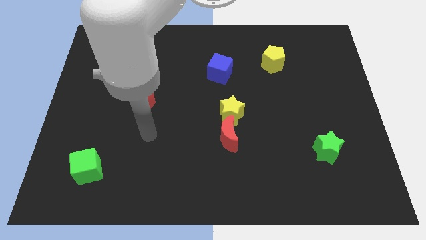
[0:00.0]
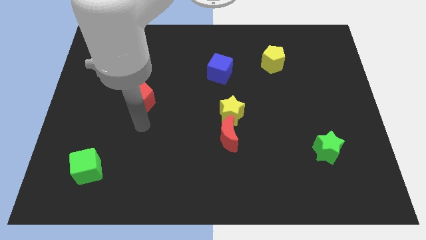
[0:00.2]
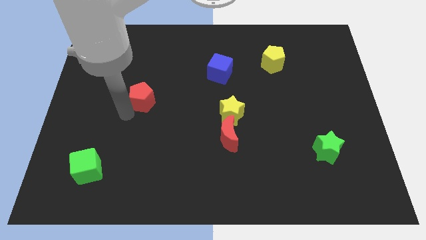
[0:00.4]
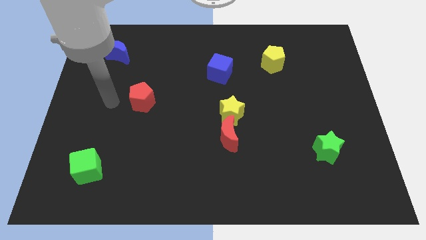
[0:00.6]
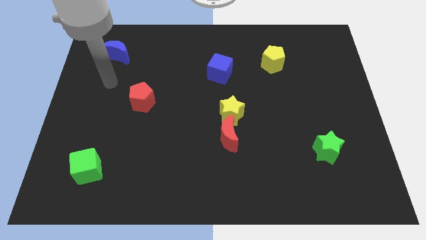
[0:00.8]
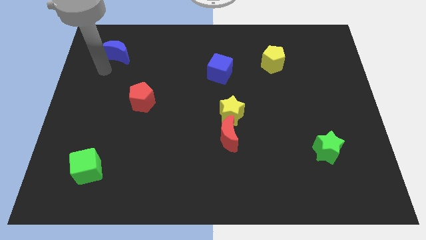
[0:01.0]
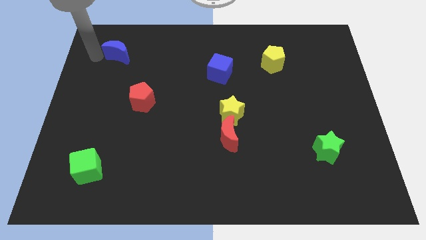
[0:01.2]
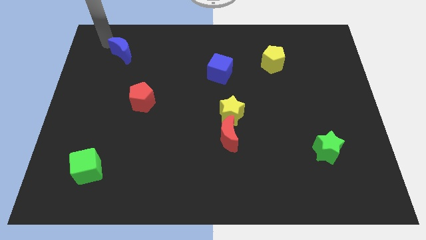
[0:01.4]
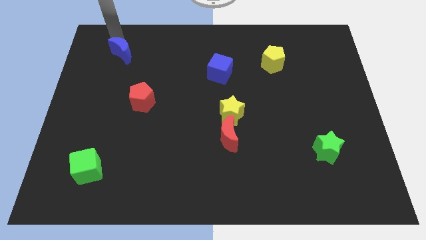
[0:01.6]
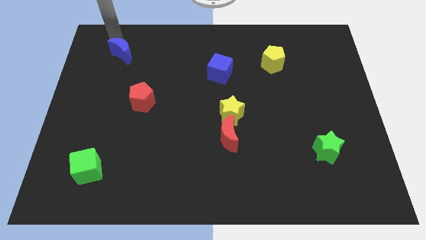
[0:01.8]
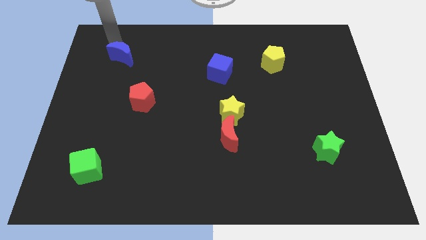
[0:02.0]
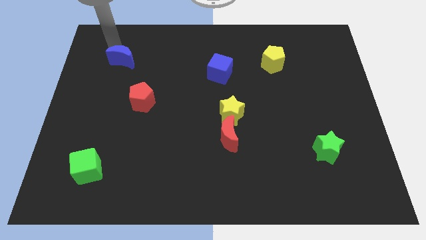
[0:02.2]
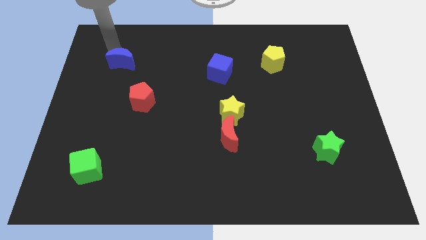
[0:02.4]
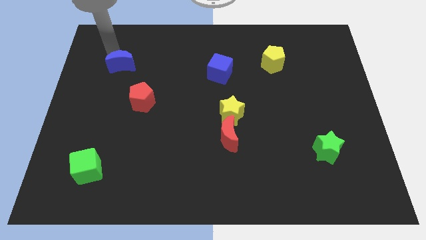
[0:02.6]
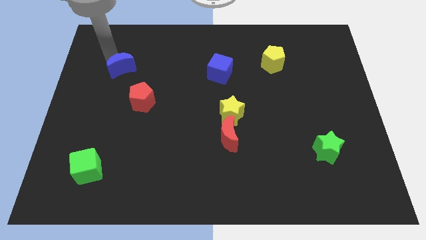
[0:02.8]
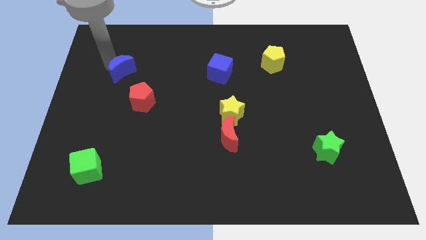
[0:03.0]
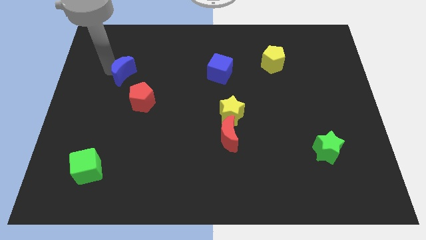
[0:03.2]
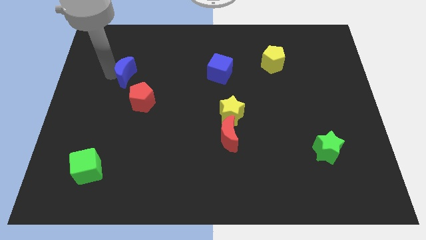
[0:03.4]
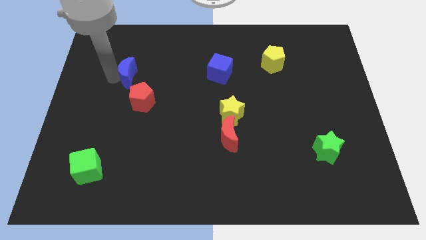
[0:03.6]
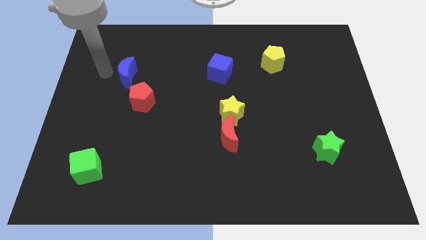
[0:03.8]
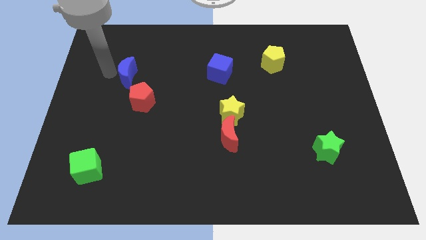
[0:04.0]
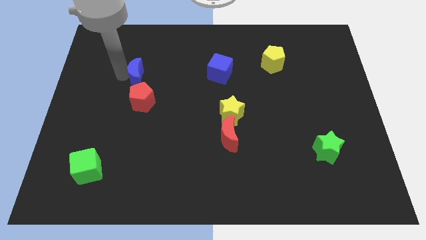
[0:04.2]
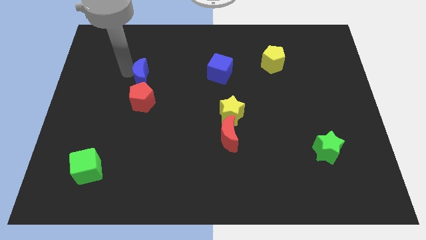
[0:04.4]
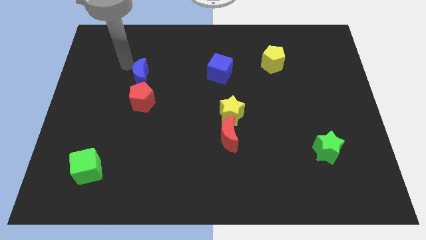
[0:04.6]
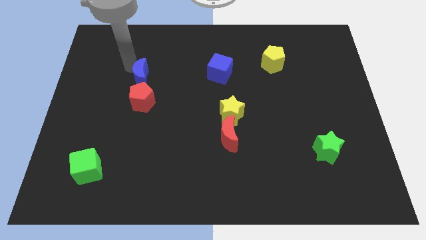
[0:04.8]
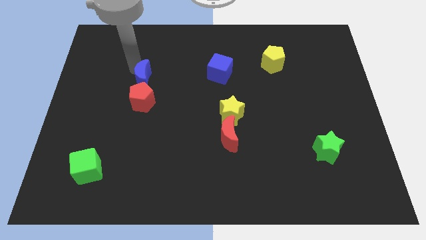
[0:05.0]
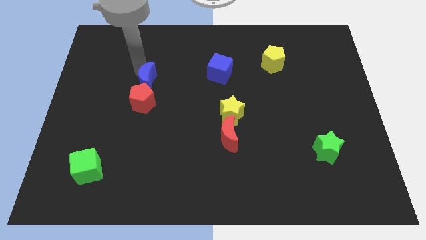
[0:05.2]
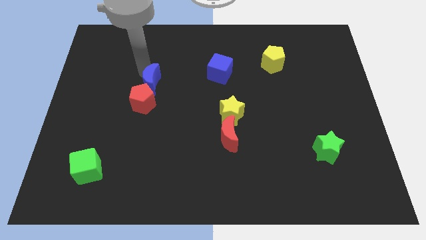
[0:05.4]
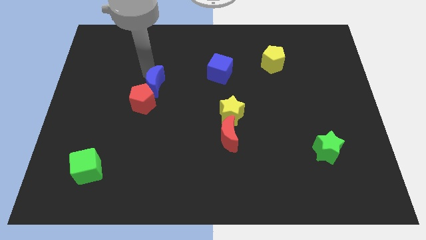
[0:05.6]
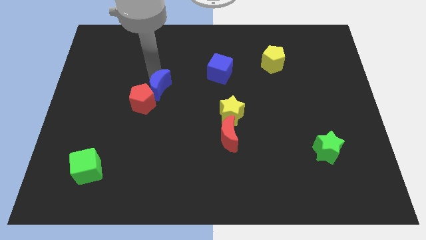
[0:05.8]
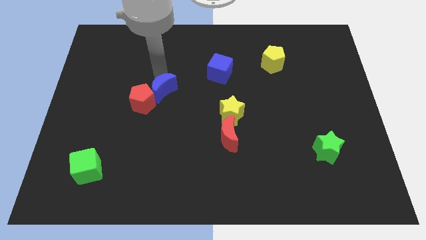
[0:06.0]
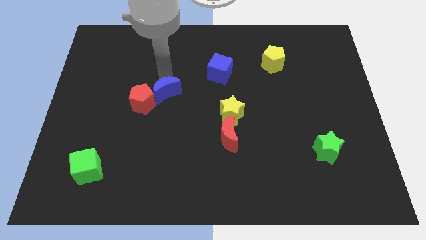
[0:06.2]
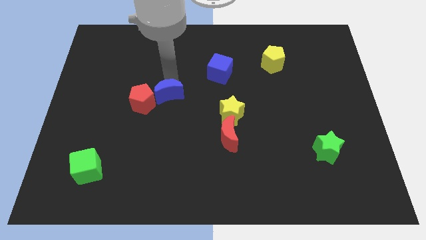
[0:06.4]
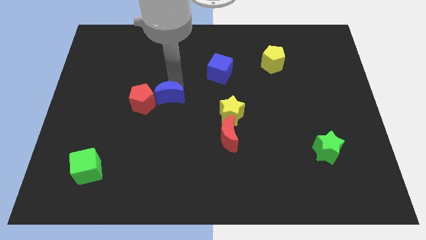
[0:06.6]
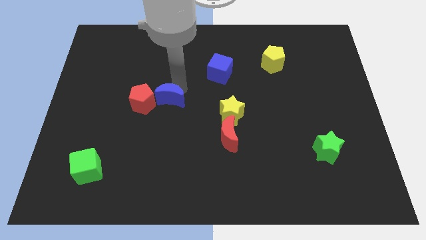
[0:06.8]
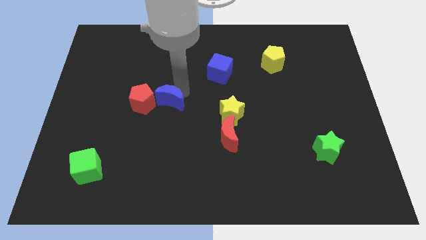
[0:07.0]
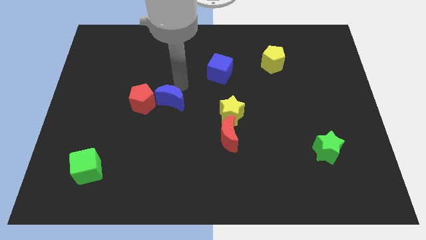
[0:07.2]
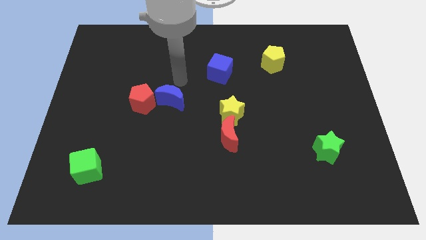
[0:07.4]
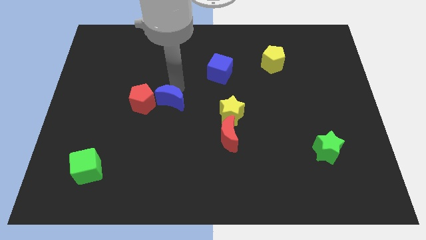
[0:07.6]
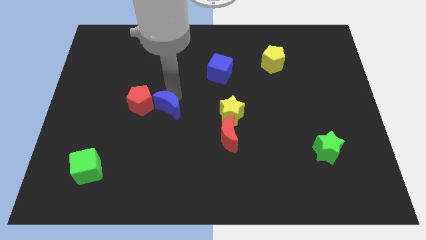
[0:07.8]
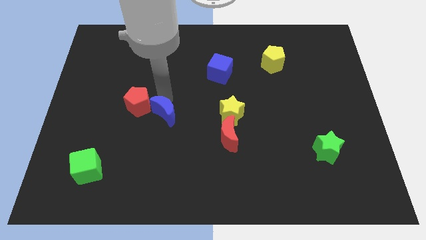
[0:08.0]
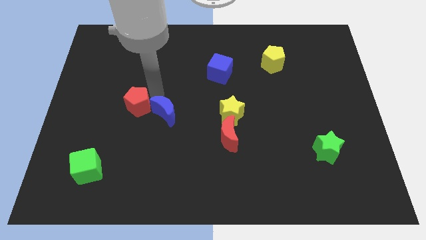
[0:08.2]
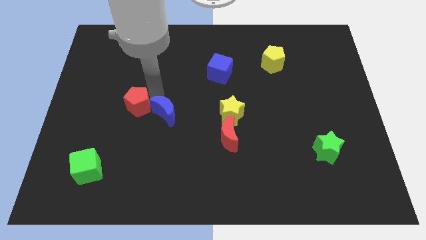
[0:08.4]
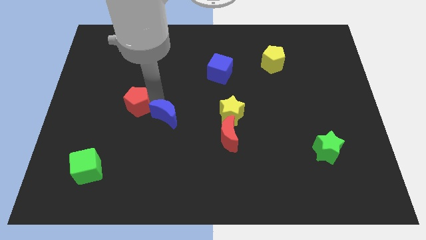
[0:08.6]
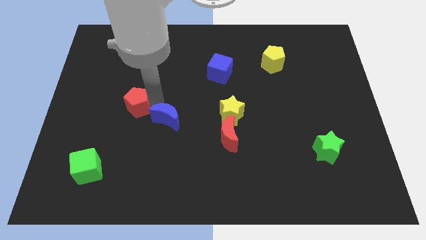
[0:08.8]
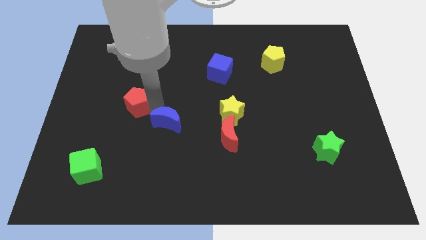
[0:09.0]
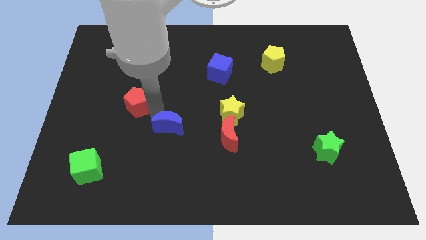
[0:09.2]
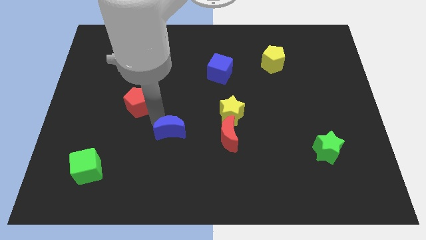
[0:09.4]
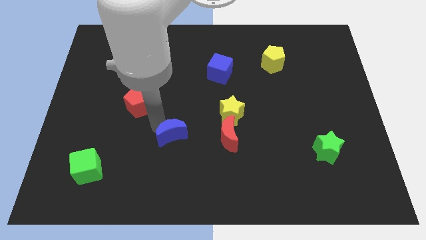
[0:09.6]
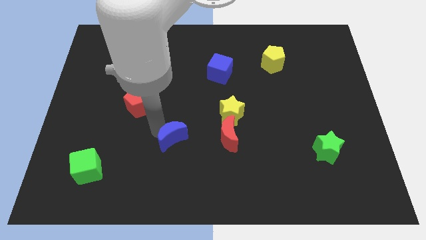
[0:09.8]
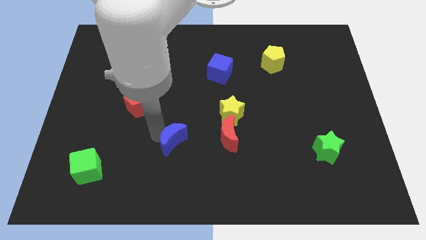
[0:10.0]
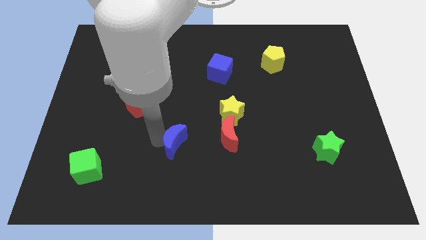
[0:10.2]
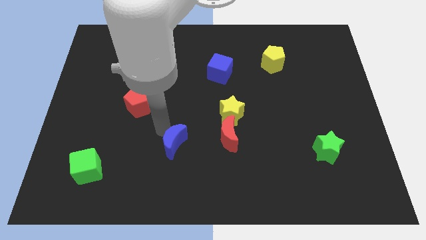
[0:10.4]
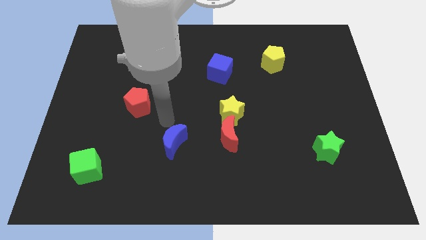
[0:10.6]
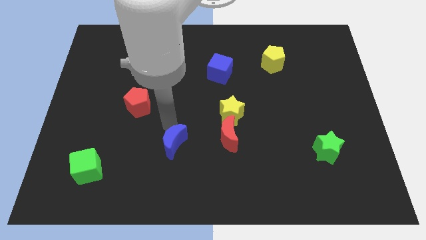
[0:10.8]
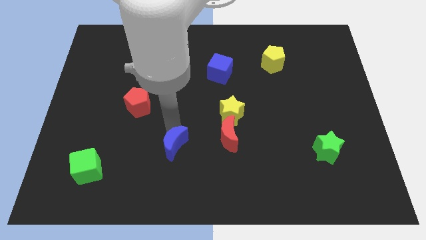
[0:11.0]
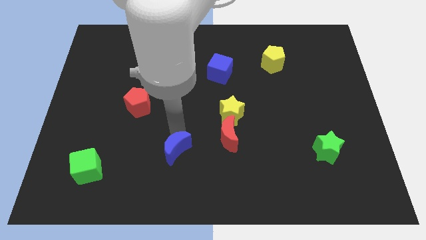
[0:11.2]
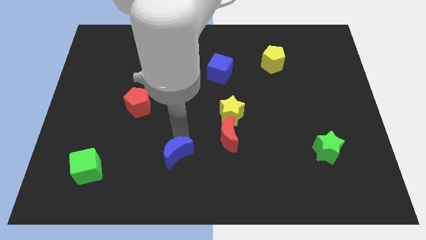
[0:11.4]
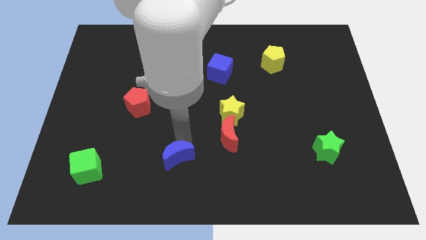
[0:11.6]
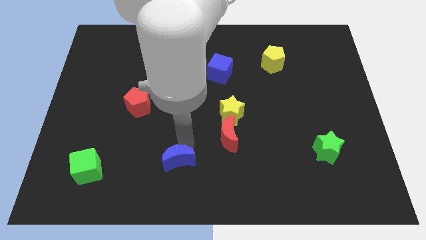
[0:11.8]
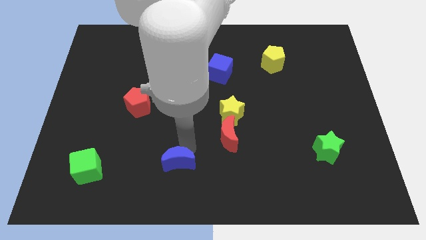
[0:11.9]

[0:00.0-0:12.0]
slide the blue moon to the bottom

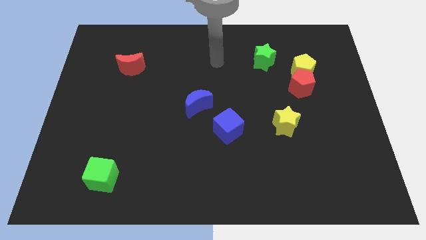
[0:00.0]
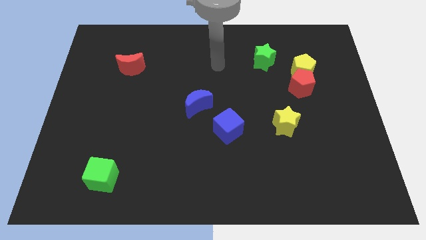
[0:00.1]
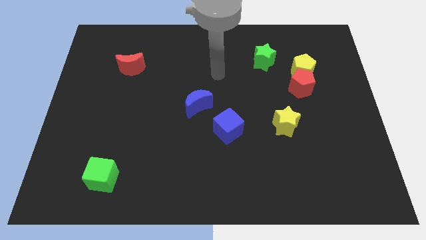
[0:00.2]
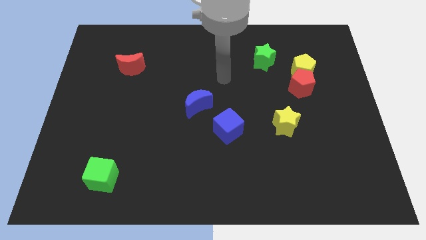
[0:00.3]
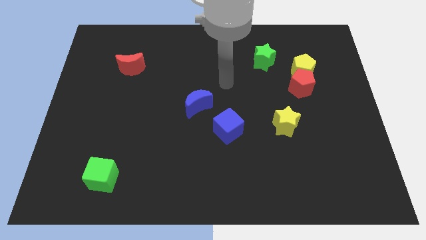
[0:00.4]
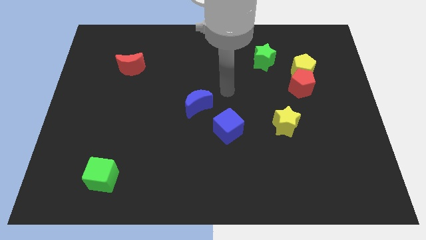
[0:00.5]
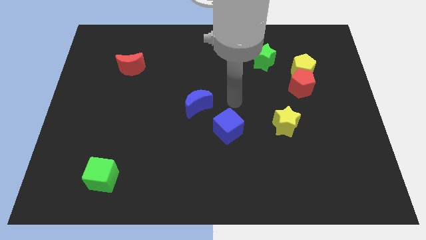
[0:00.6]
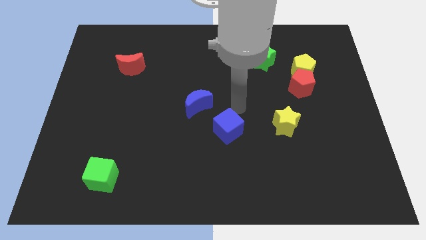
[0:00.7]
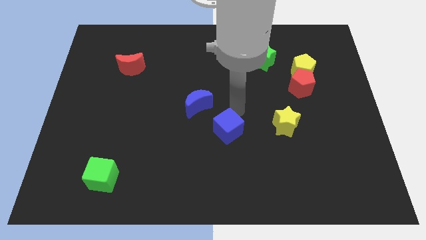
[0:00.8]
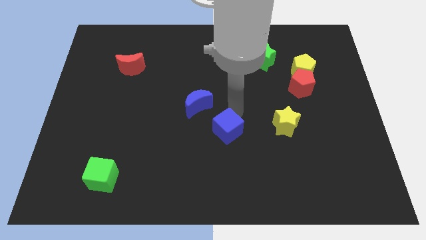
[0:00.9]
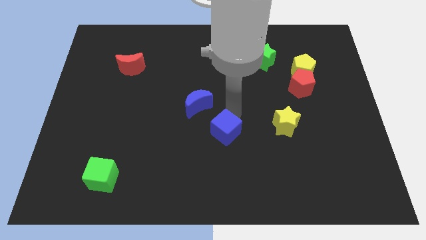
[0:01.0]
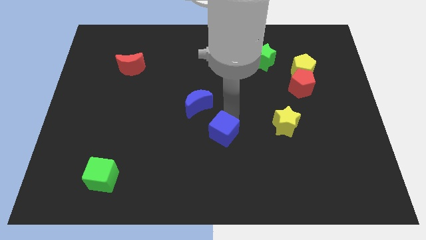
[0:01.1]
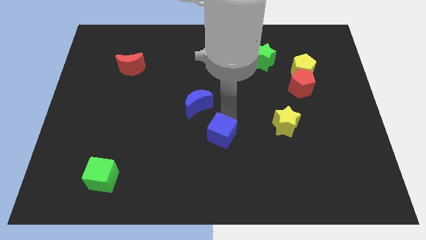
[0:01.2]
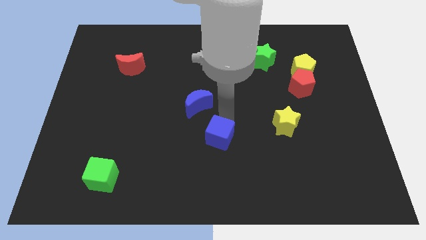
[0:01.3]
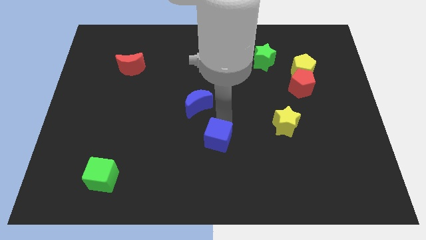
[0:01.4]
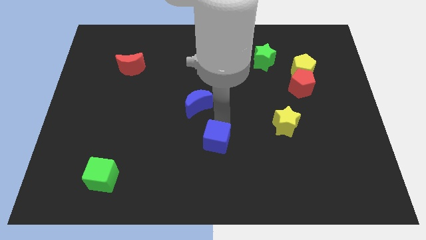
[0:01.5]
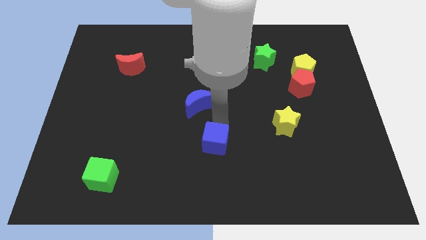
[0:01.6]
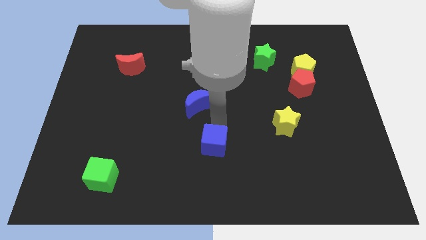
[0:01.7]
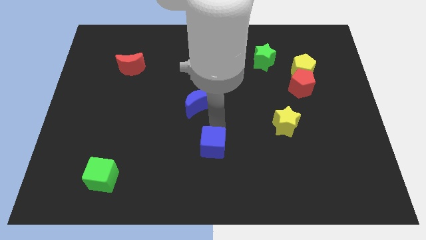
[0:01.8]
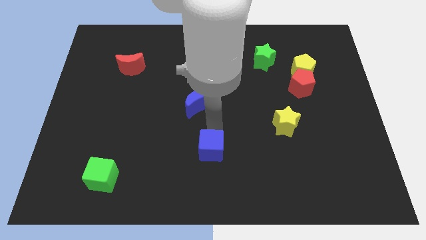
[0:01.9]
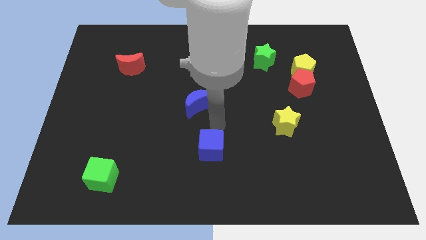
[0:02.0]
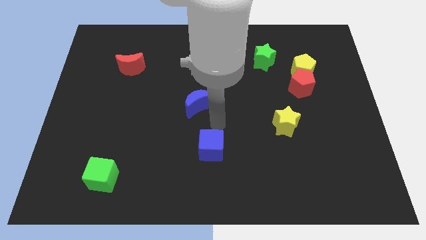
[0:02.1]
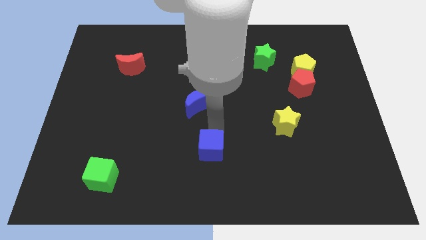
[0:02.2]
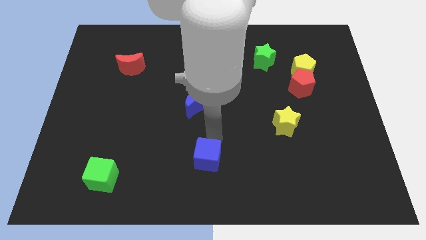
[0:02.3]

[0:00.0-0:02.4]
slide the blue cube to the bottom
